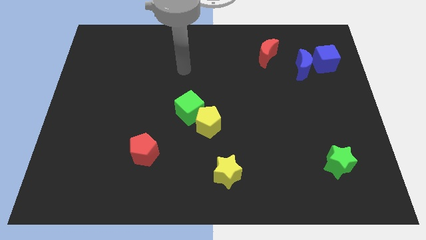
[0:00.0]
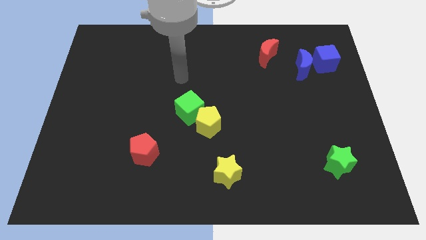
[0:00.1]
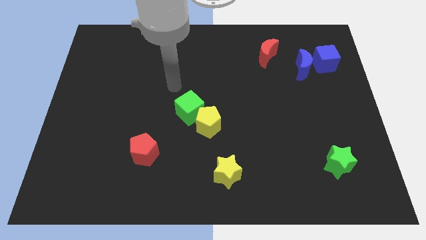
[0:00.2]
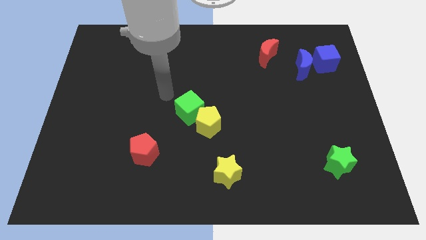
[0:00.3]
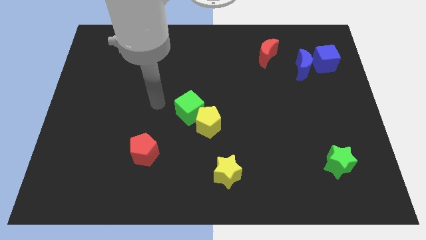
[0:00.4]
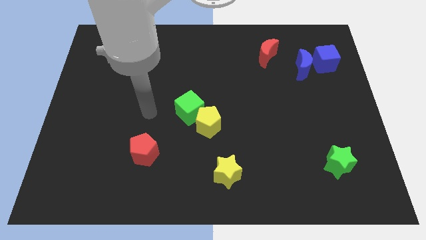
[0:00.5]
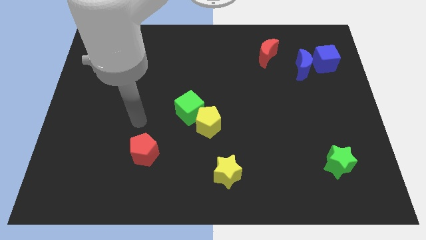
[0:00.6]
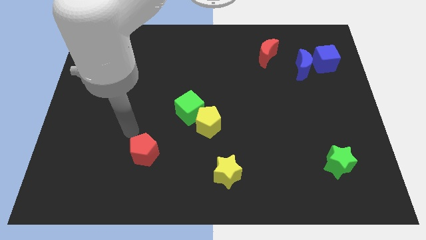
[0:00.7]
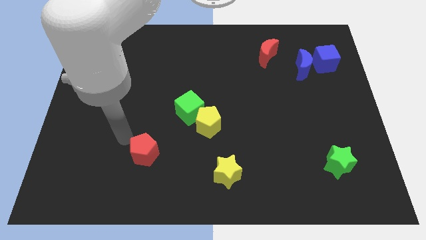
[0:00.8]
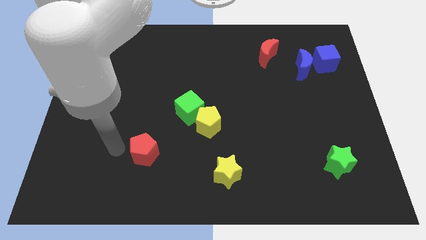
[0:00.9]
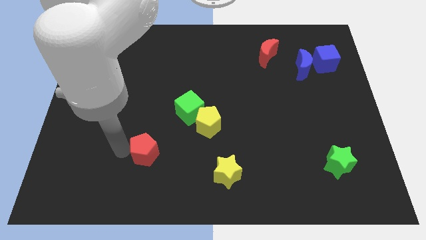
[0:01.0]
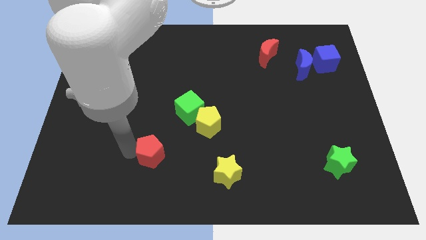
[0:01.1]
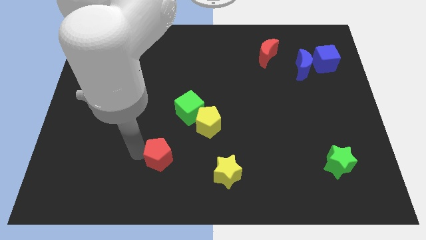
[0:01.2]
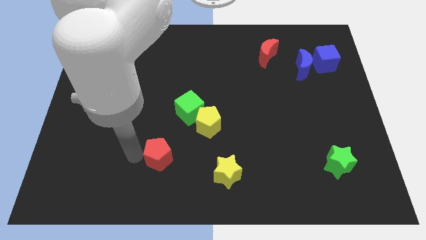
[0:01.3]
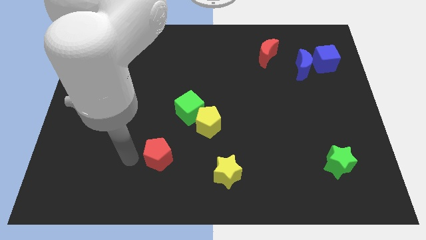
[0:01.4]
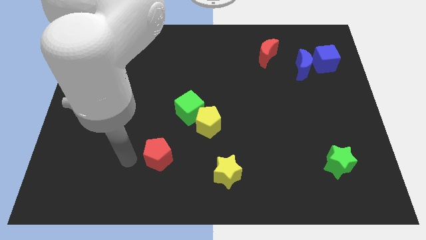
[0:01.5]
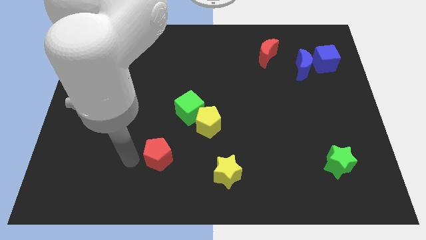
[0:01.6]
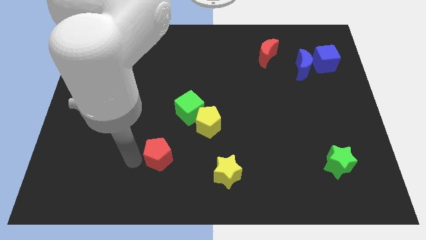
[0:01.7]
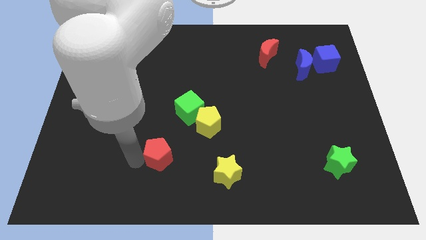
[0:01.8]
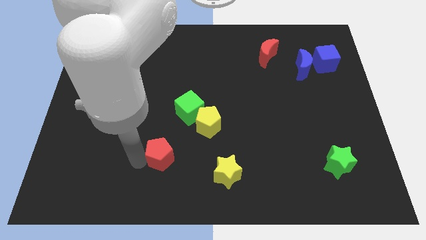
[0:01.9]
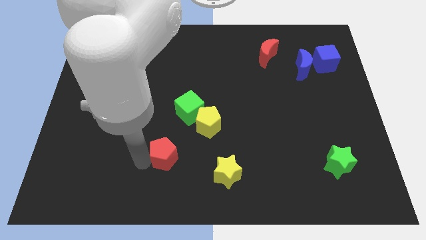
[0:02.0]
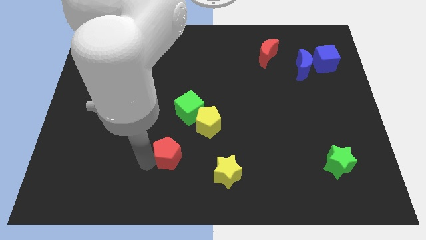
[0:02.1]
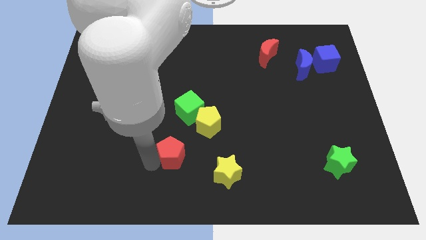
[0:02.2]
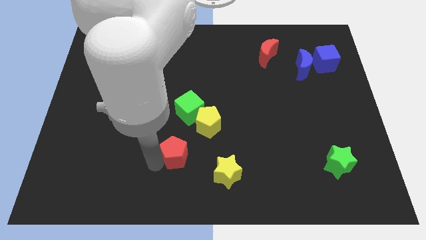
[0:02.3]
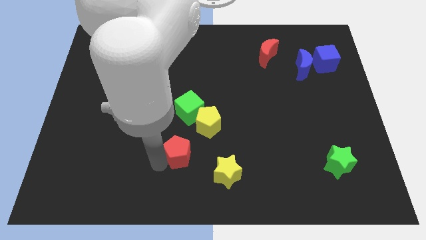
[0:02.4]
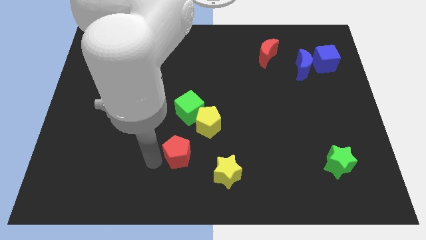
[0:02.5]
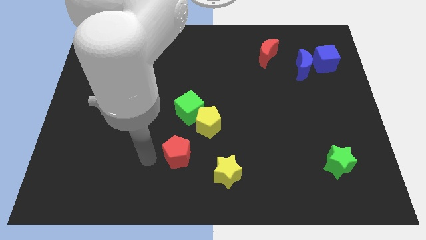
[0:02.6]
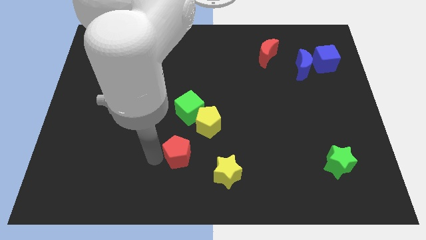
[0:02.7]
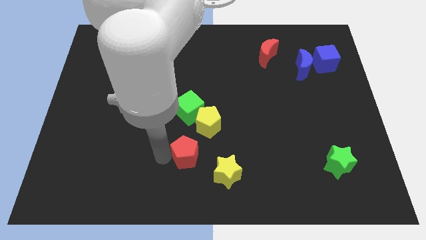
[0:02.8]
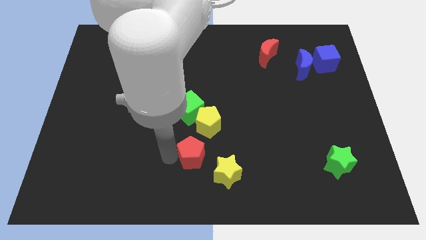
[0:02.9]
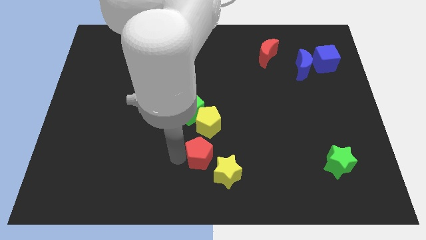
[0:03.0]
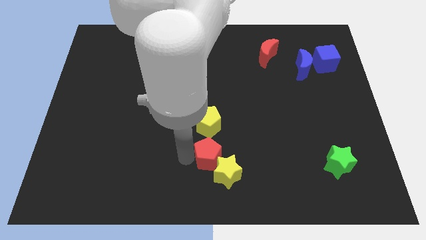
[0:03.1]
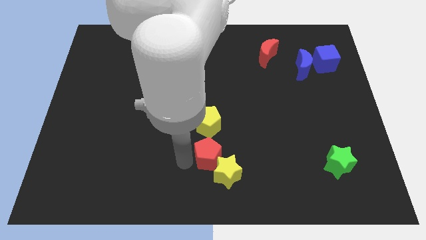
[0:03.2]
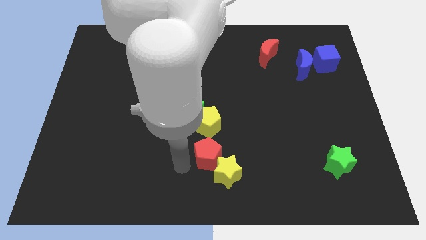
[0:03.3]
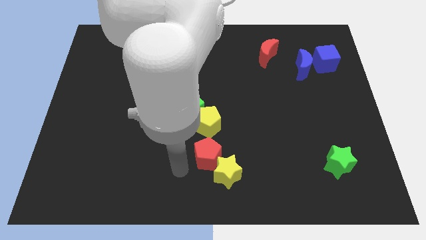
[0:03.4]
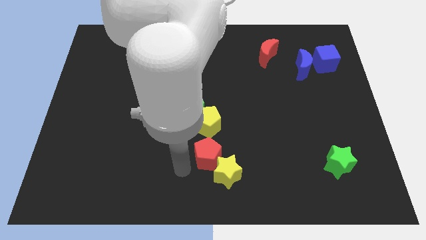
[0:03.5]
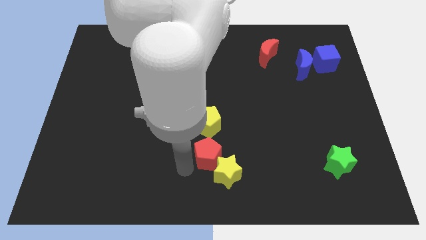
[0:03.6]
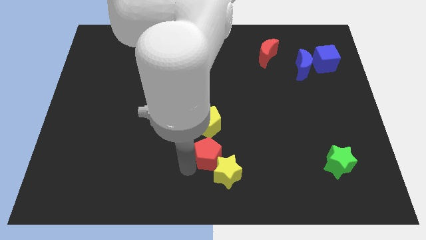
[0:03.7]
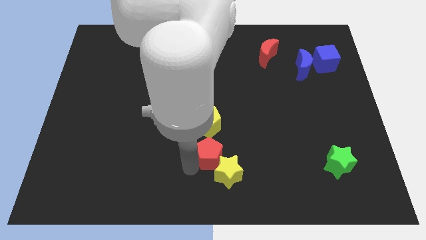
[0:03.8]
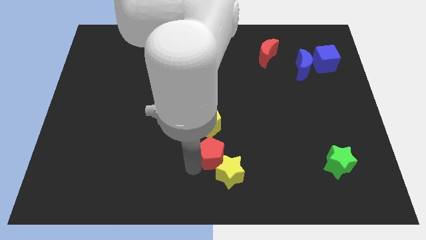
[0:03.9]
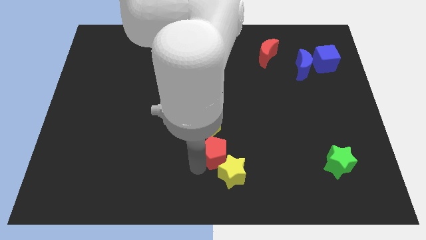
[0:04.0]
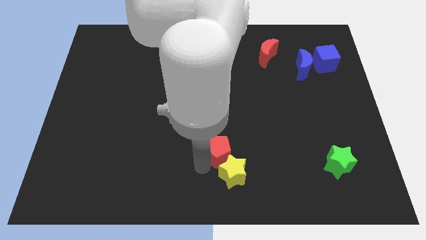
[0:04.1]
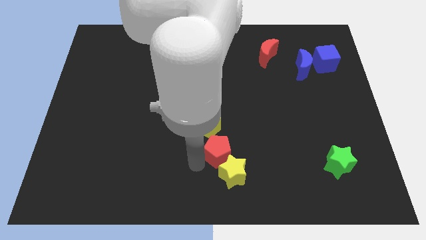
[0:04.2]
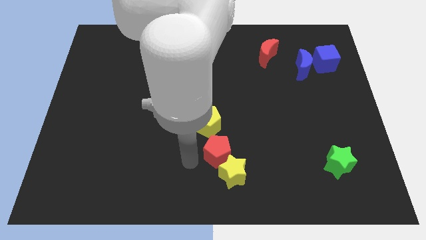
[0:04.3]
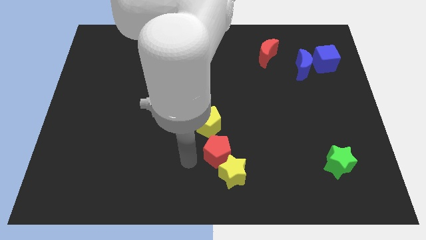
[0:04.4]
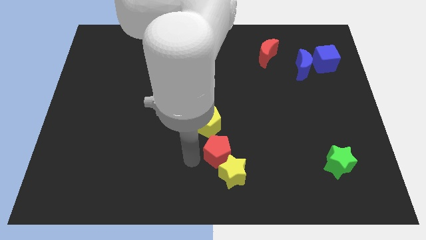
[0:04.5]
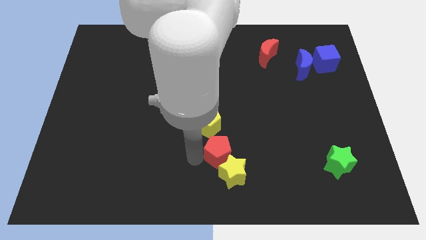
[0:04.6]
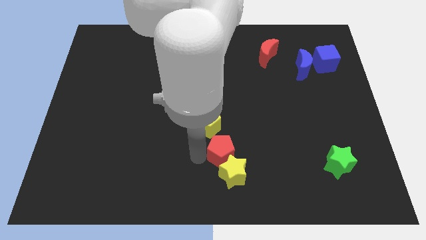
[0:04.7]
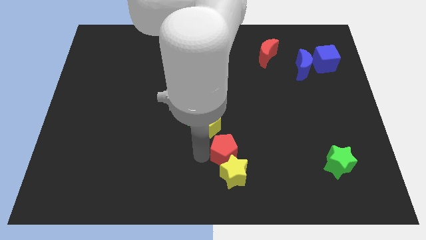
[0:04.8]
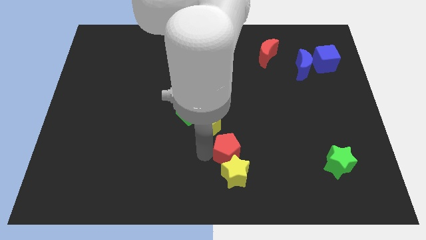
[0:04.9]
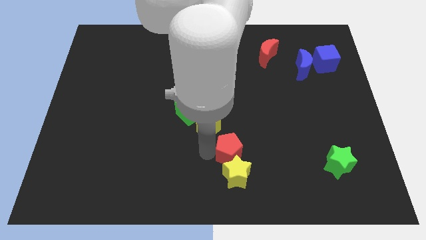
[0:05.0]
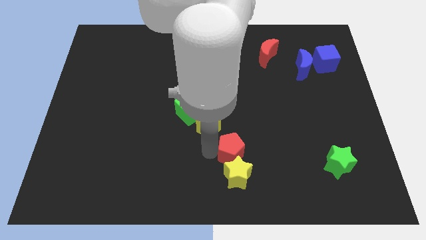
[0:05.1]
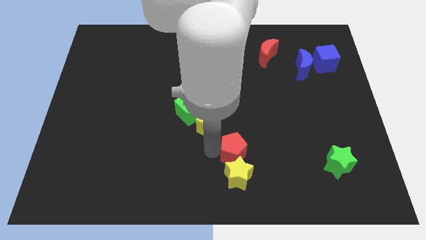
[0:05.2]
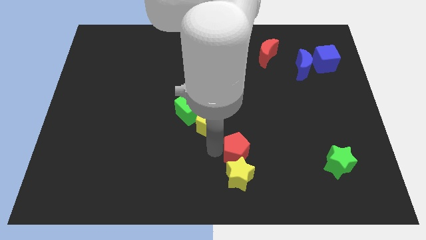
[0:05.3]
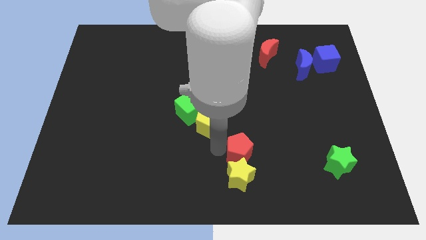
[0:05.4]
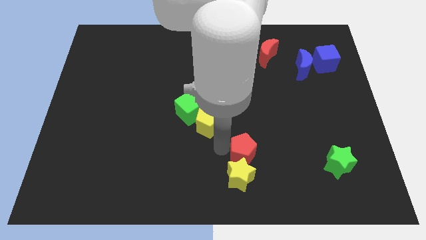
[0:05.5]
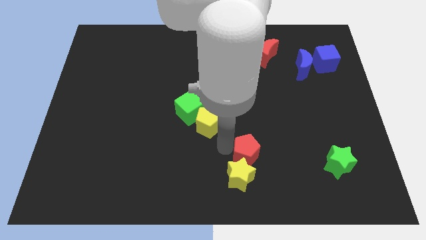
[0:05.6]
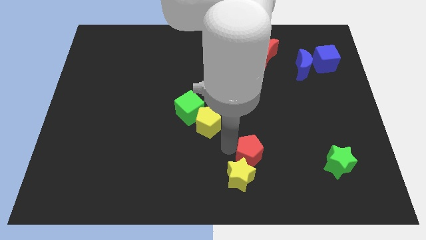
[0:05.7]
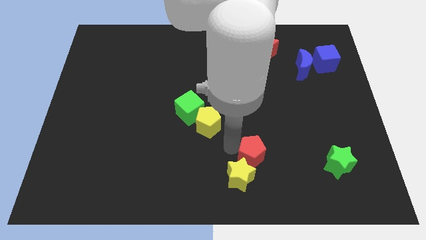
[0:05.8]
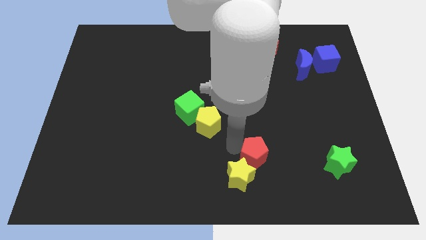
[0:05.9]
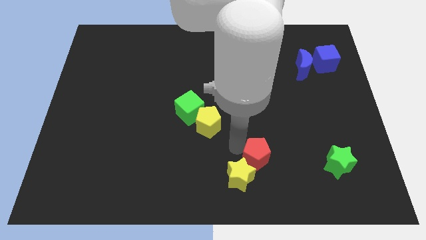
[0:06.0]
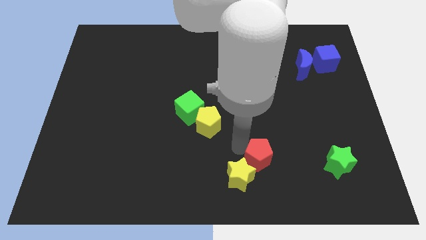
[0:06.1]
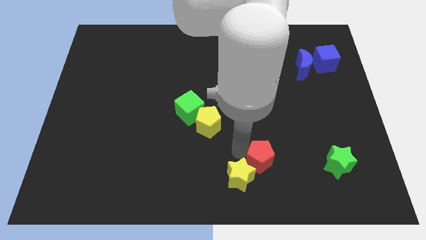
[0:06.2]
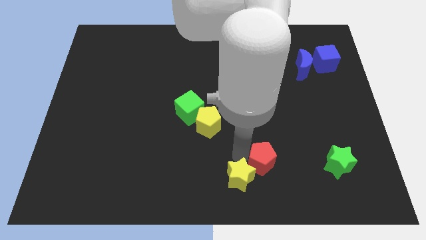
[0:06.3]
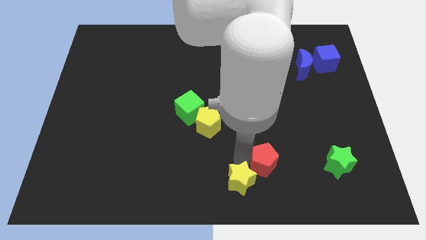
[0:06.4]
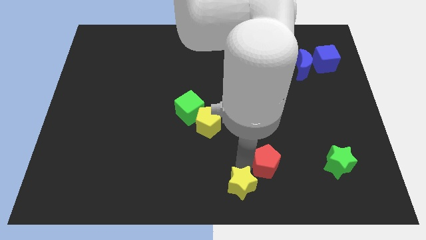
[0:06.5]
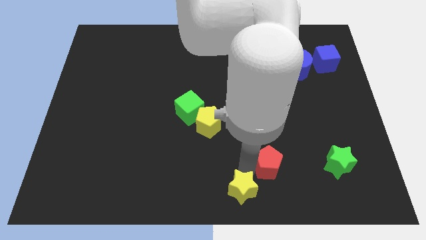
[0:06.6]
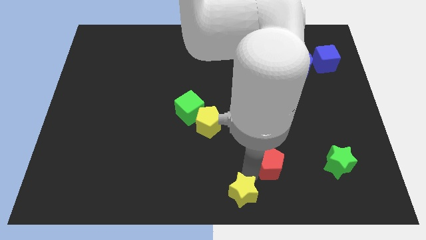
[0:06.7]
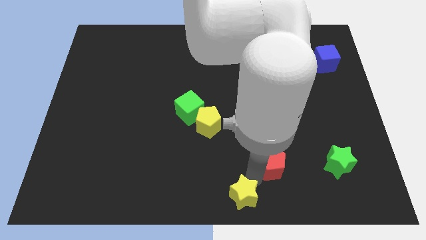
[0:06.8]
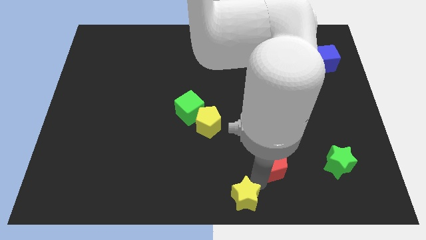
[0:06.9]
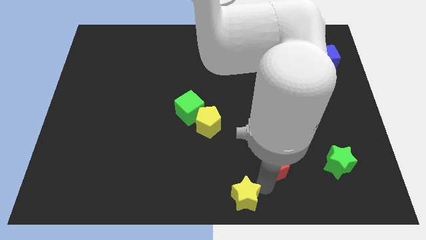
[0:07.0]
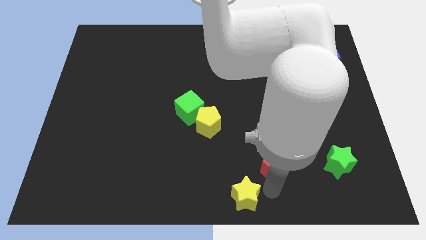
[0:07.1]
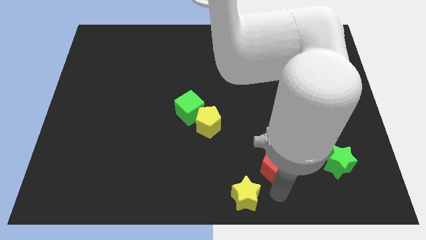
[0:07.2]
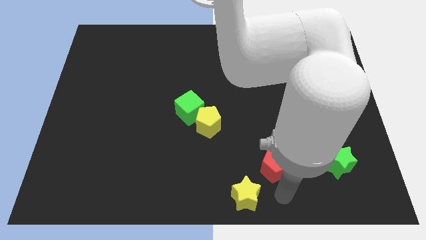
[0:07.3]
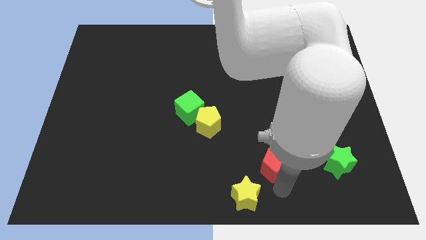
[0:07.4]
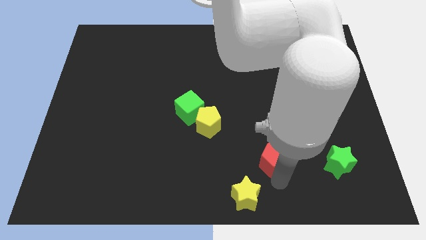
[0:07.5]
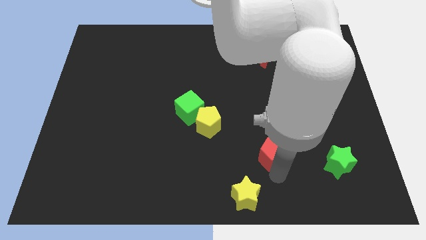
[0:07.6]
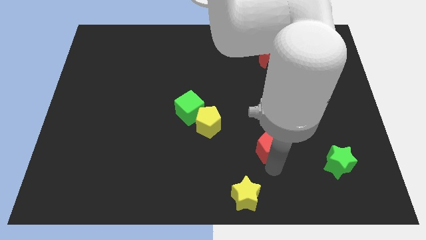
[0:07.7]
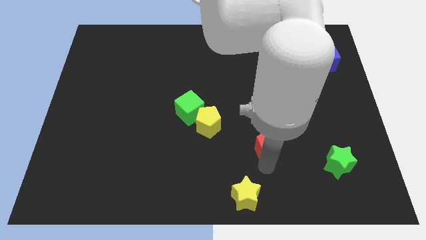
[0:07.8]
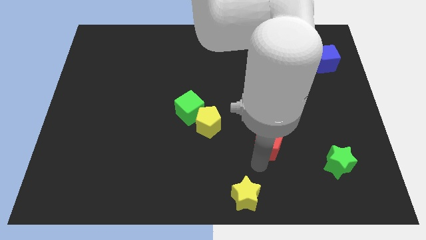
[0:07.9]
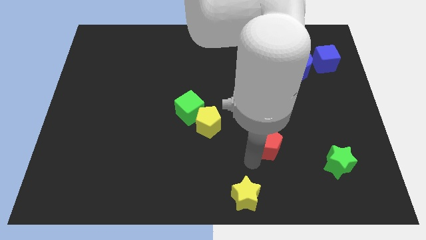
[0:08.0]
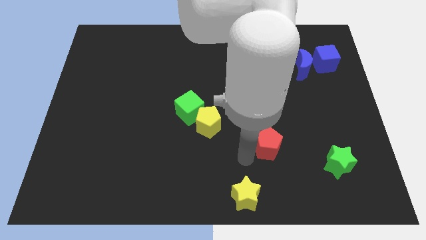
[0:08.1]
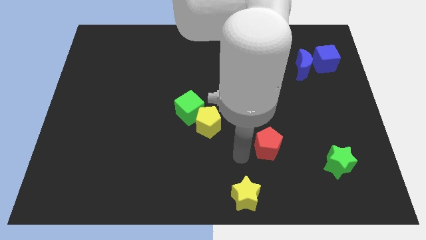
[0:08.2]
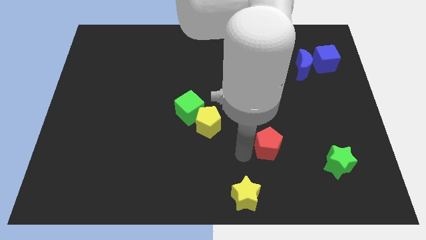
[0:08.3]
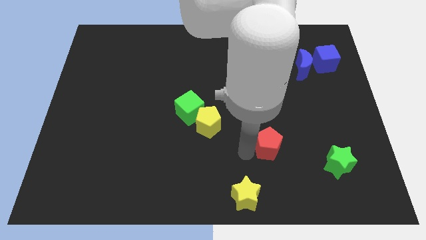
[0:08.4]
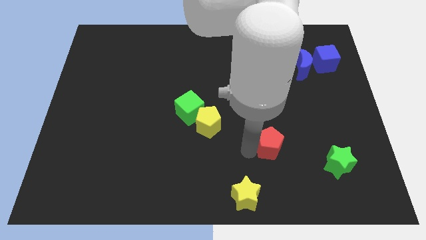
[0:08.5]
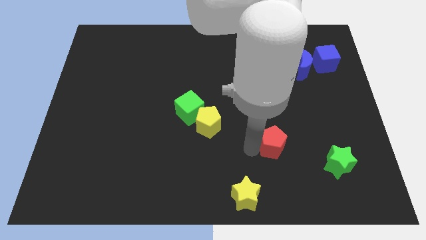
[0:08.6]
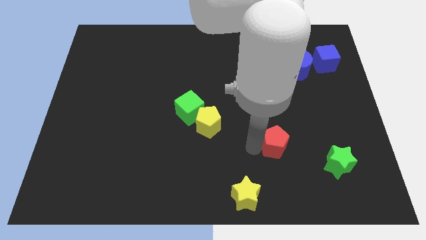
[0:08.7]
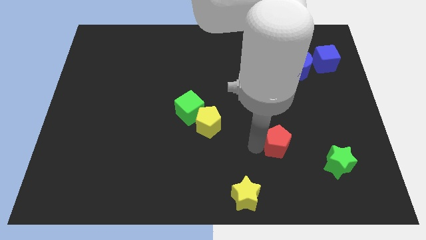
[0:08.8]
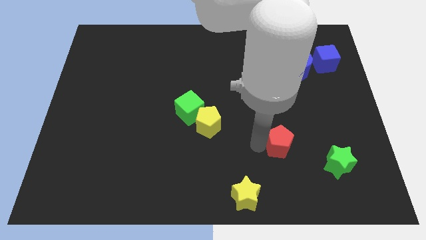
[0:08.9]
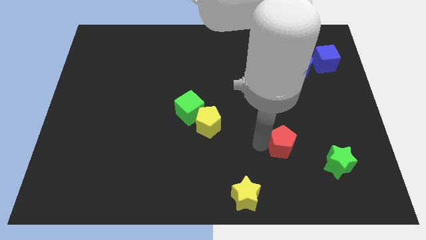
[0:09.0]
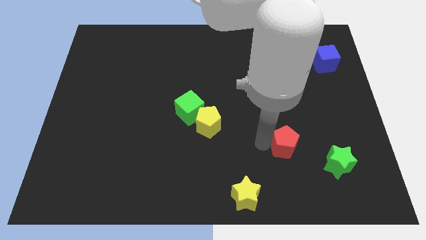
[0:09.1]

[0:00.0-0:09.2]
move the red pentagon to the top left side of the green star
